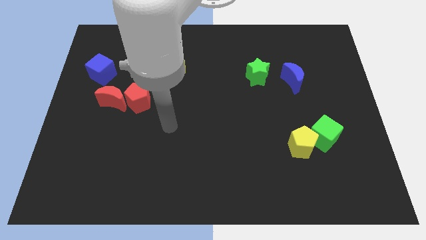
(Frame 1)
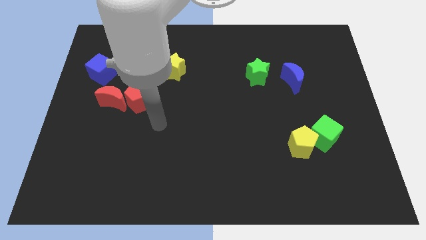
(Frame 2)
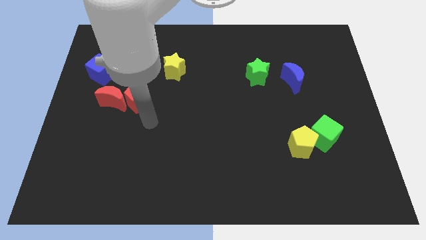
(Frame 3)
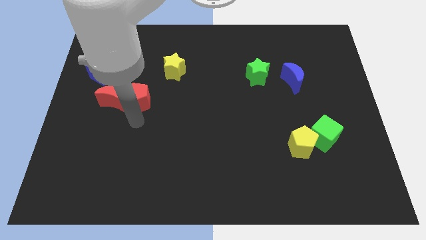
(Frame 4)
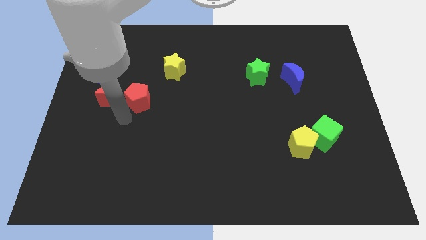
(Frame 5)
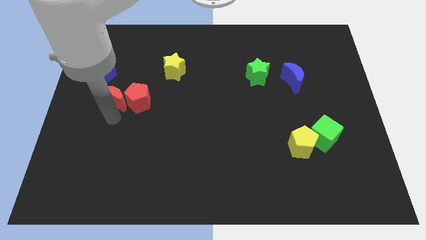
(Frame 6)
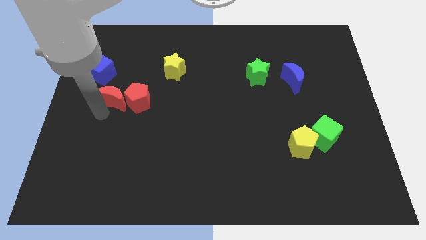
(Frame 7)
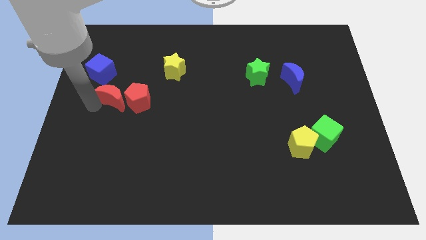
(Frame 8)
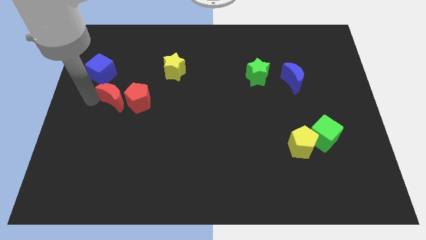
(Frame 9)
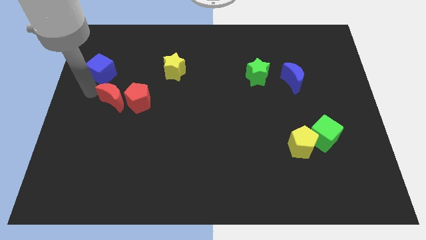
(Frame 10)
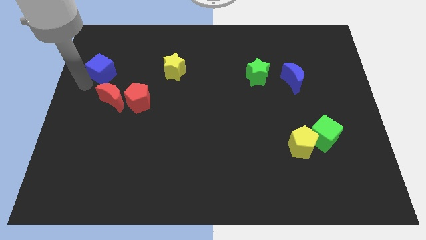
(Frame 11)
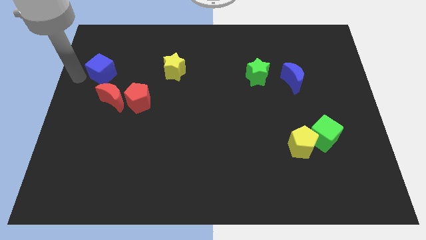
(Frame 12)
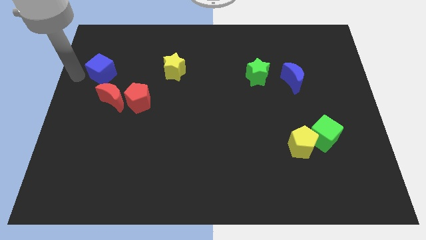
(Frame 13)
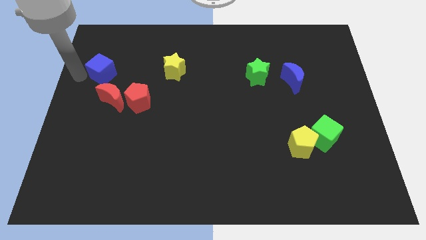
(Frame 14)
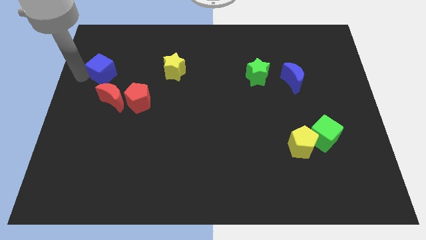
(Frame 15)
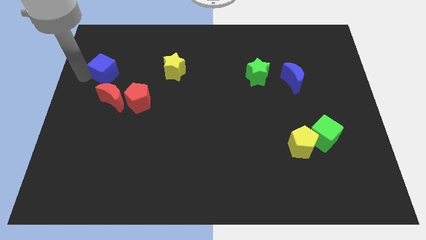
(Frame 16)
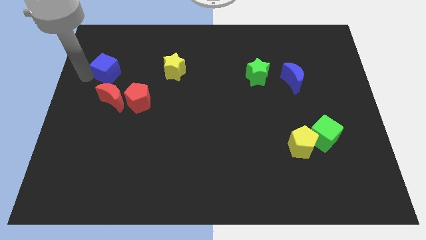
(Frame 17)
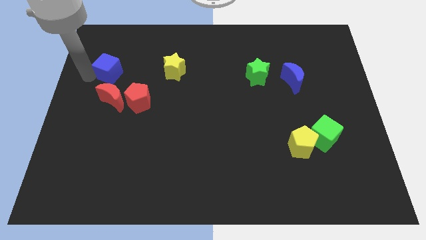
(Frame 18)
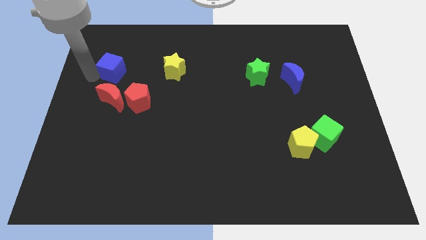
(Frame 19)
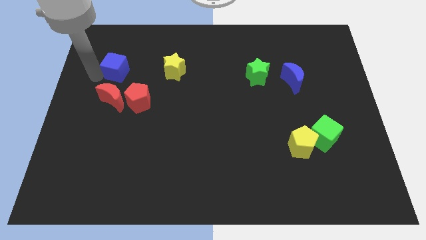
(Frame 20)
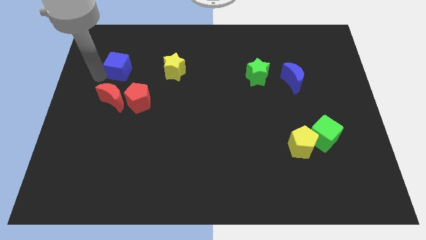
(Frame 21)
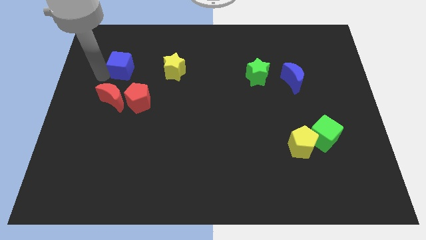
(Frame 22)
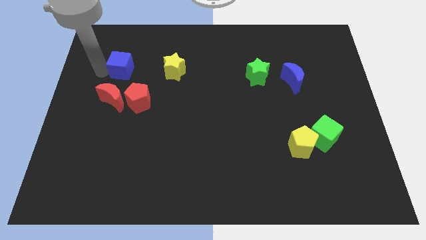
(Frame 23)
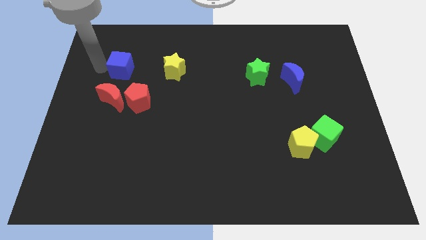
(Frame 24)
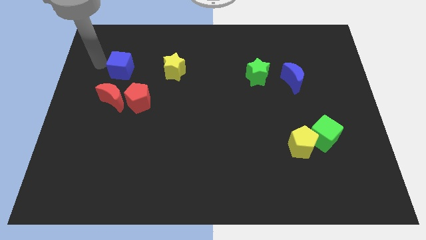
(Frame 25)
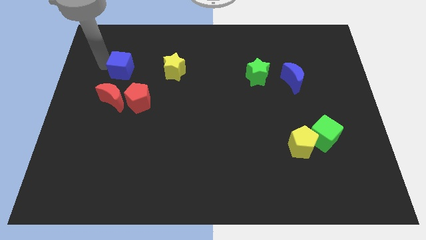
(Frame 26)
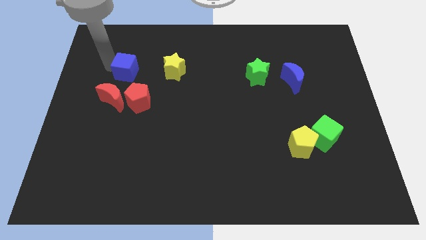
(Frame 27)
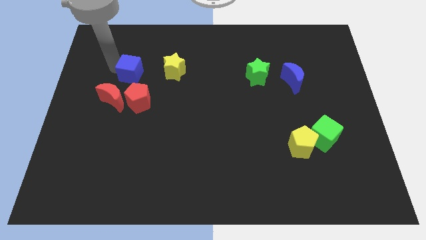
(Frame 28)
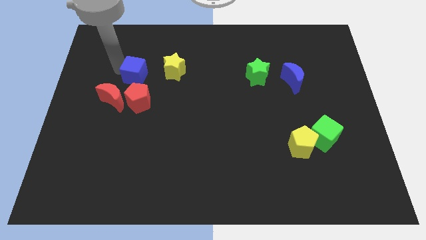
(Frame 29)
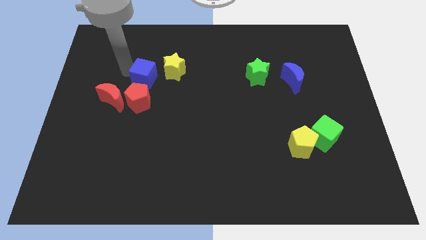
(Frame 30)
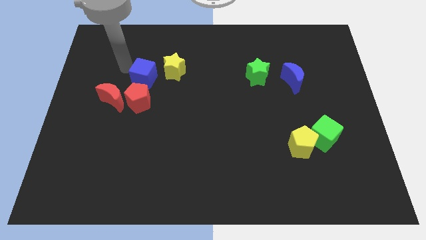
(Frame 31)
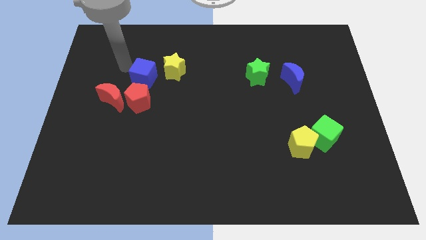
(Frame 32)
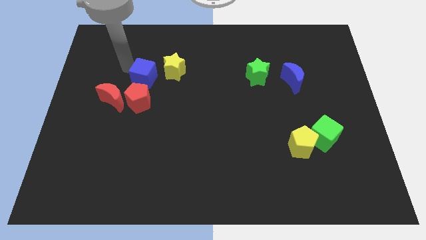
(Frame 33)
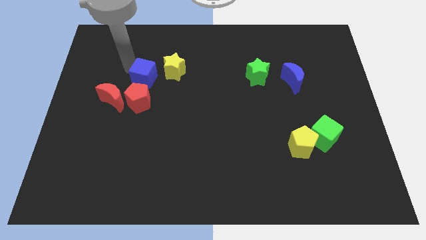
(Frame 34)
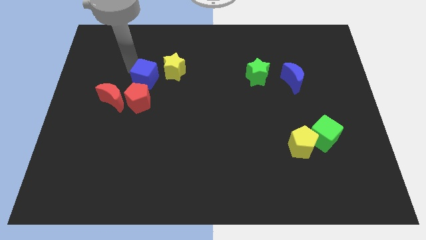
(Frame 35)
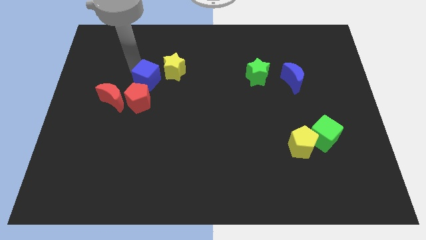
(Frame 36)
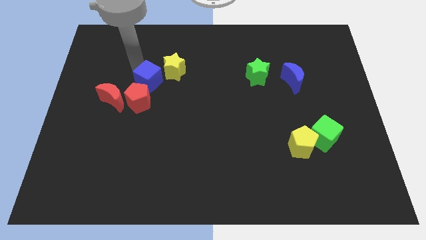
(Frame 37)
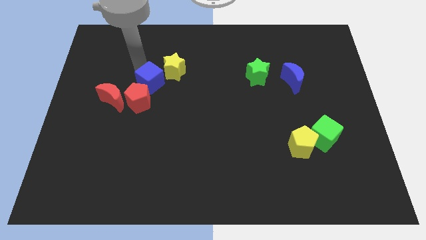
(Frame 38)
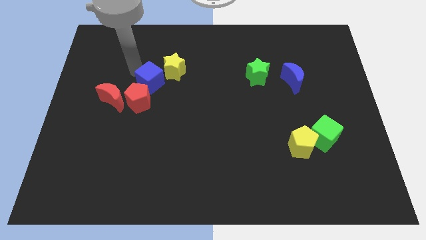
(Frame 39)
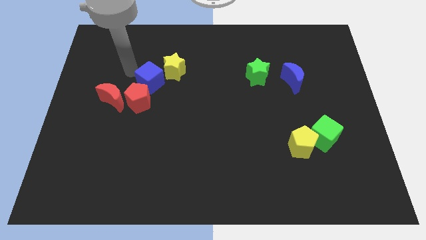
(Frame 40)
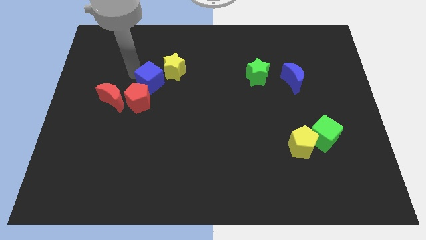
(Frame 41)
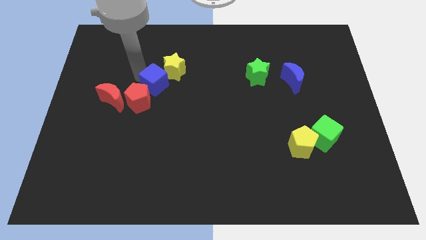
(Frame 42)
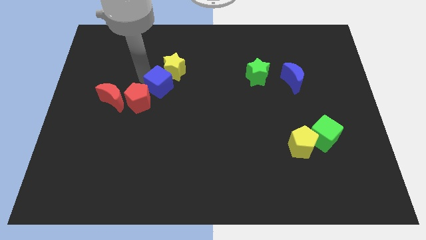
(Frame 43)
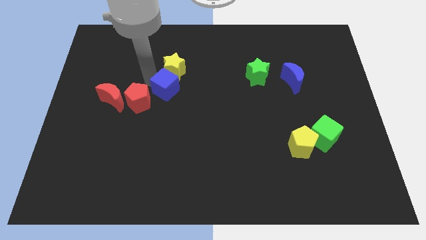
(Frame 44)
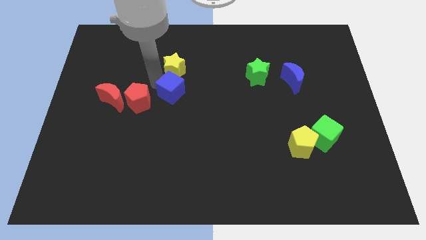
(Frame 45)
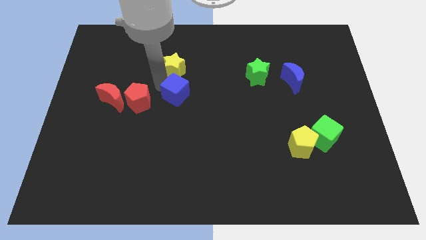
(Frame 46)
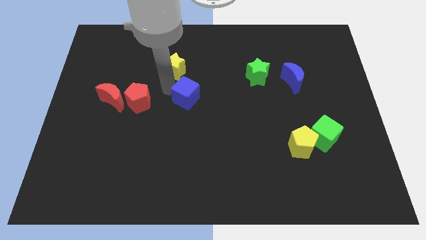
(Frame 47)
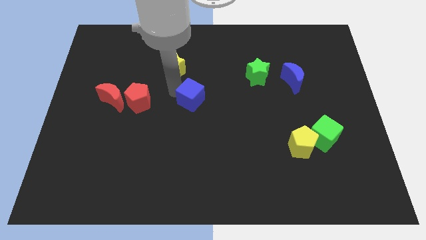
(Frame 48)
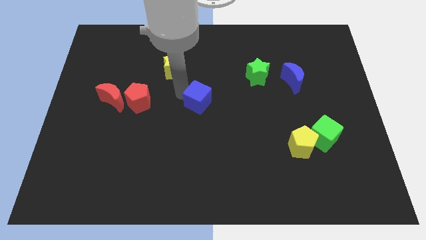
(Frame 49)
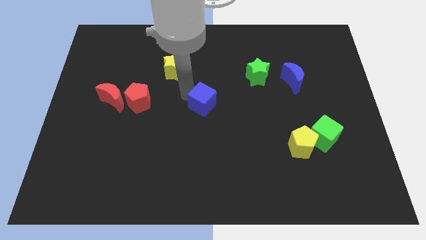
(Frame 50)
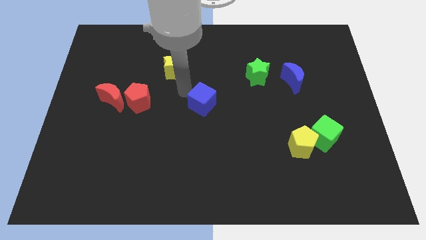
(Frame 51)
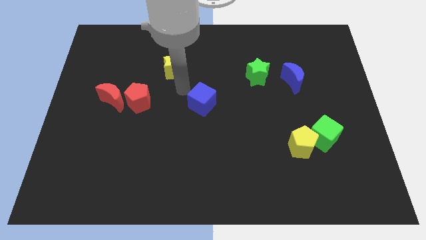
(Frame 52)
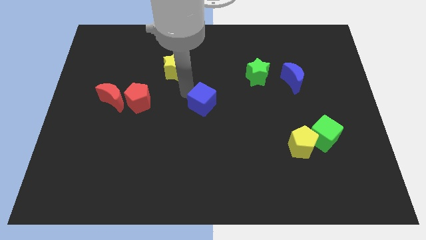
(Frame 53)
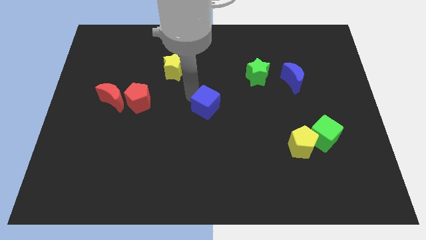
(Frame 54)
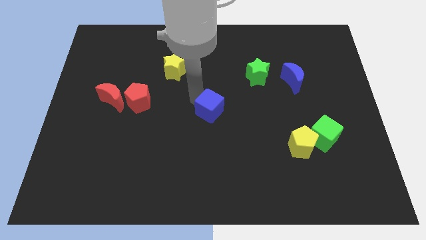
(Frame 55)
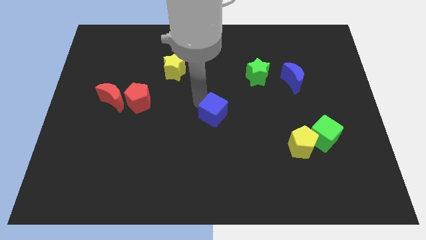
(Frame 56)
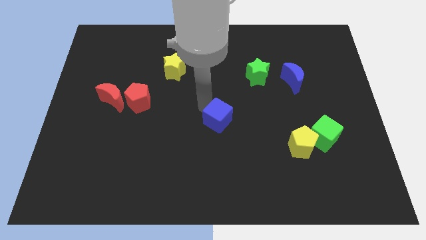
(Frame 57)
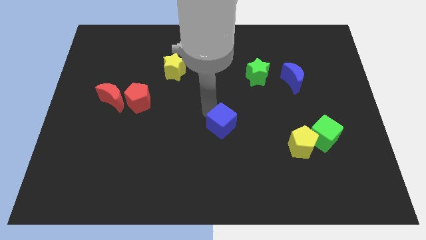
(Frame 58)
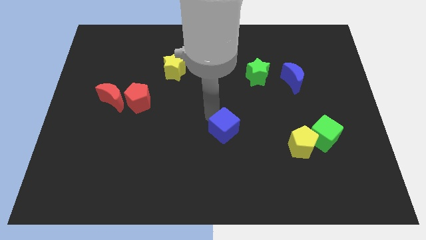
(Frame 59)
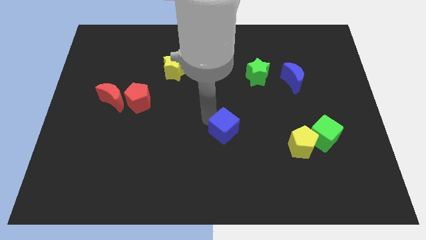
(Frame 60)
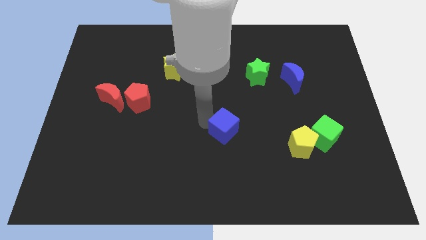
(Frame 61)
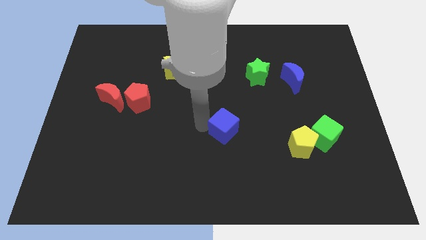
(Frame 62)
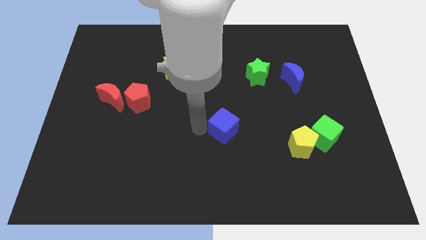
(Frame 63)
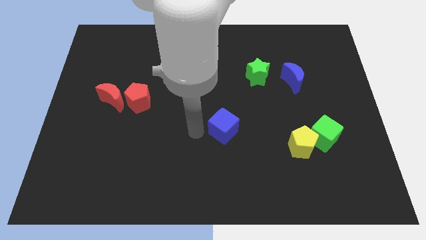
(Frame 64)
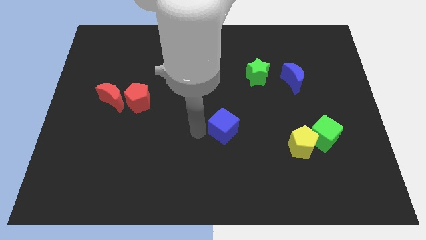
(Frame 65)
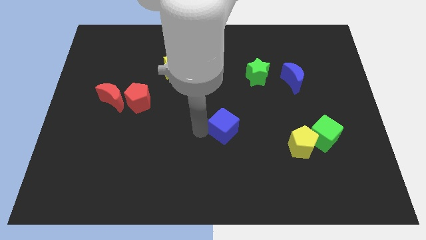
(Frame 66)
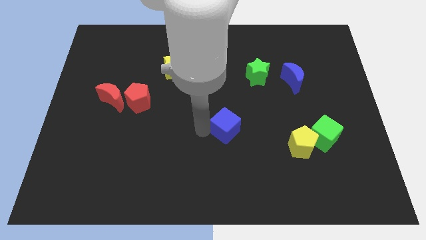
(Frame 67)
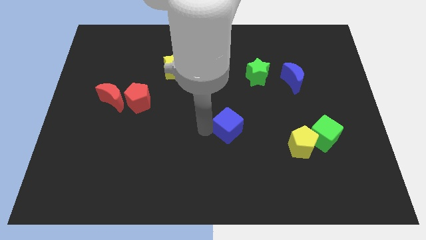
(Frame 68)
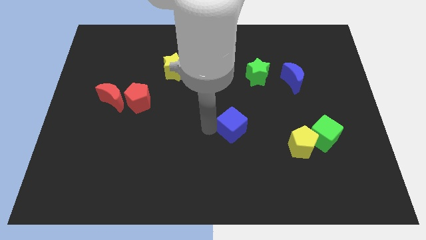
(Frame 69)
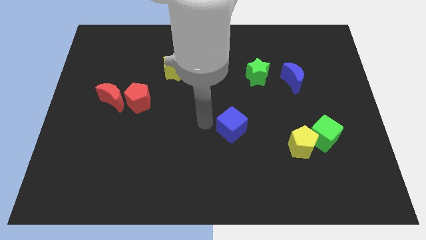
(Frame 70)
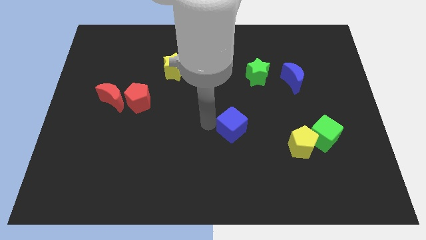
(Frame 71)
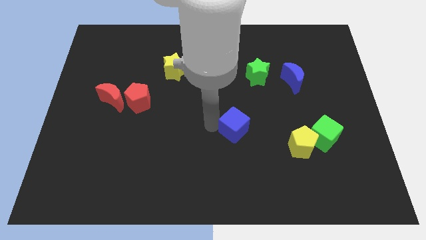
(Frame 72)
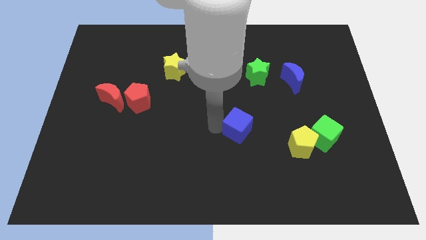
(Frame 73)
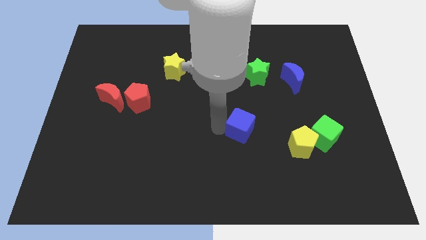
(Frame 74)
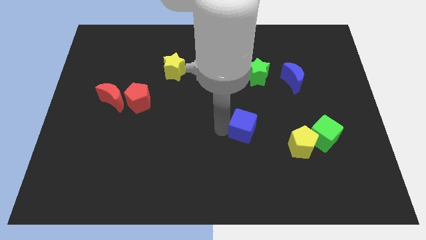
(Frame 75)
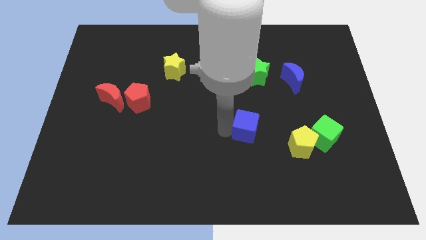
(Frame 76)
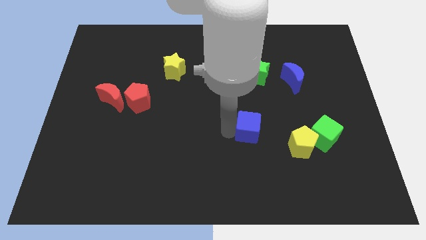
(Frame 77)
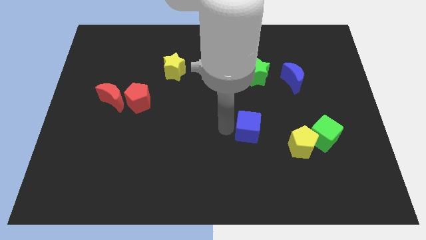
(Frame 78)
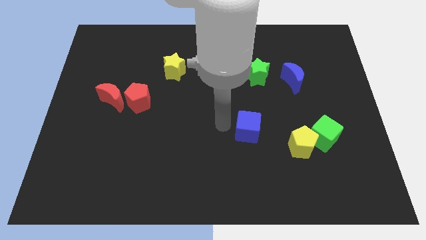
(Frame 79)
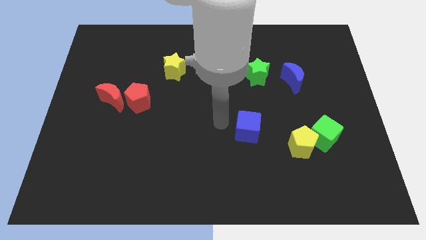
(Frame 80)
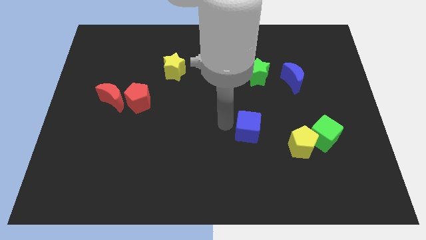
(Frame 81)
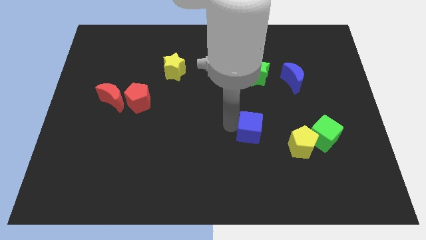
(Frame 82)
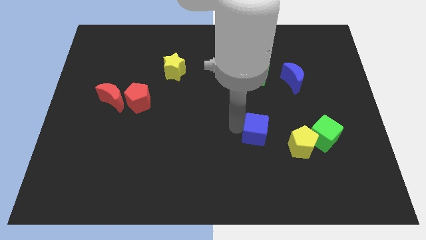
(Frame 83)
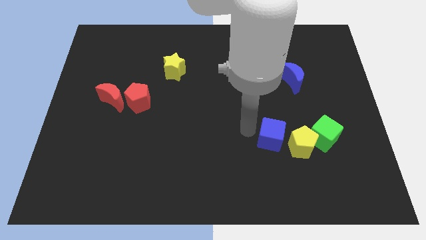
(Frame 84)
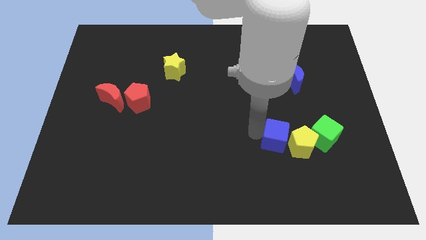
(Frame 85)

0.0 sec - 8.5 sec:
move the blue cube to the yellow pentagon
